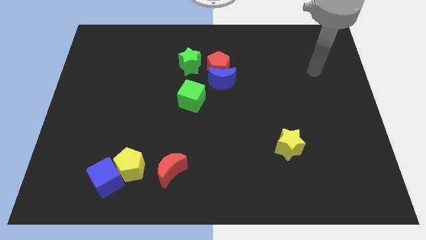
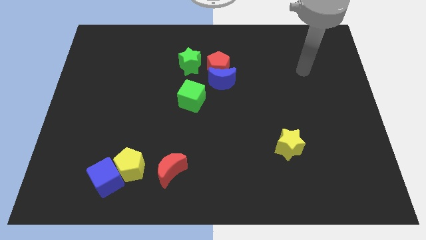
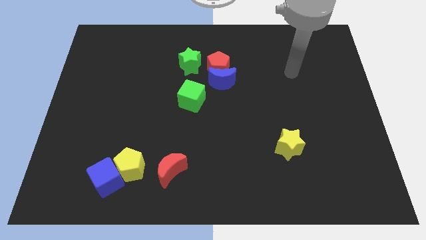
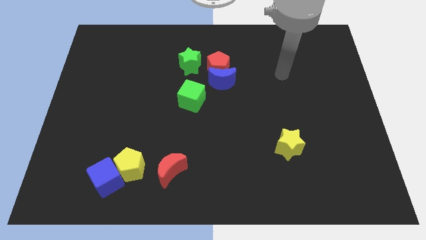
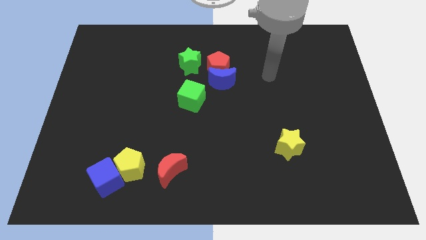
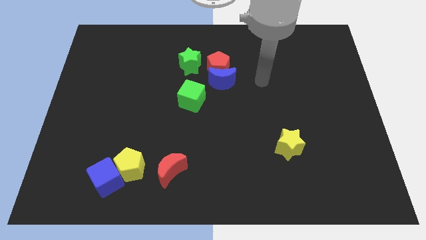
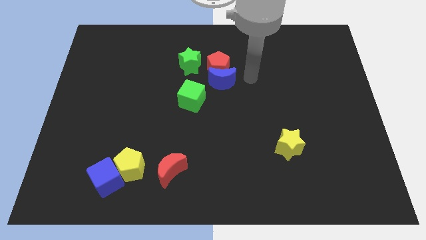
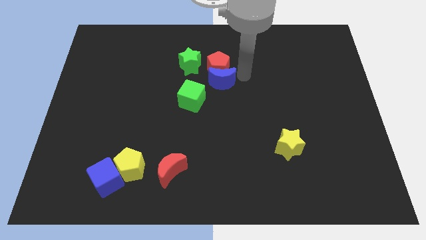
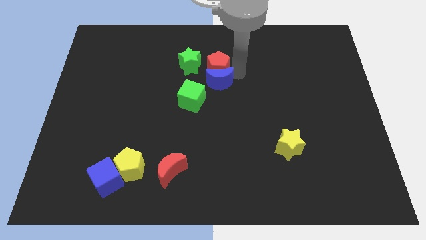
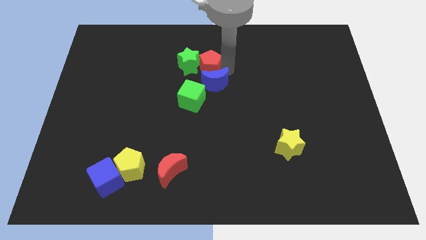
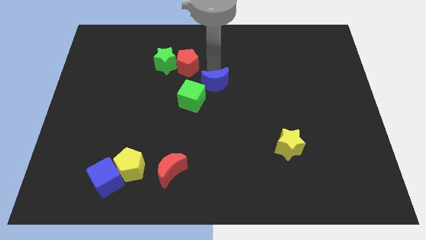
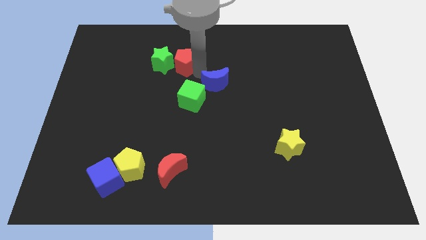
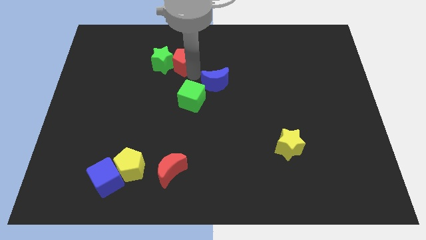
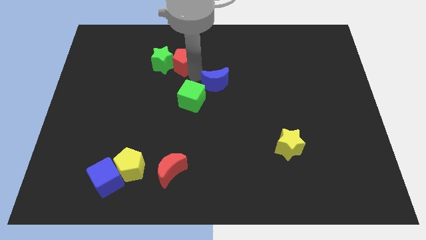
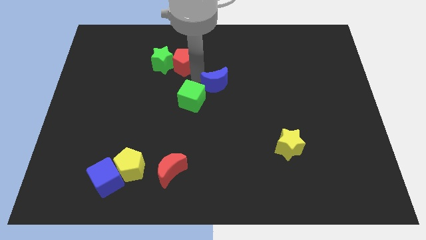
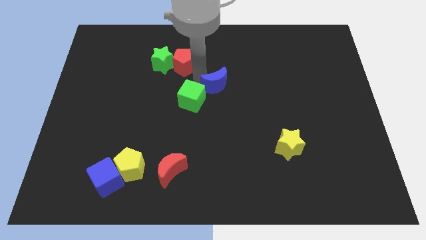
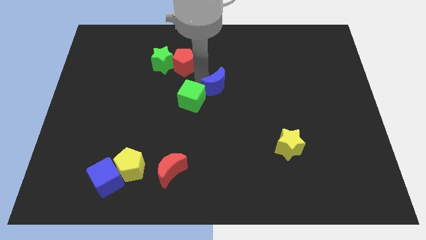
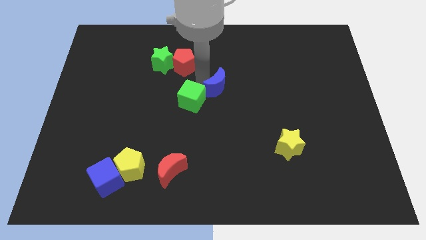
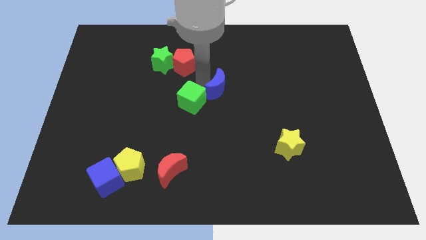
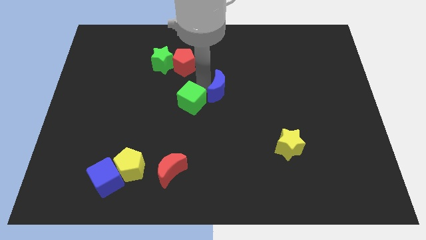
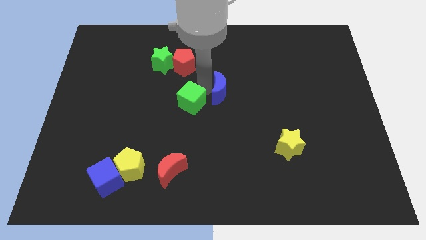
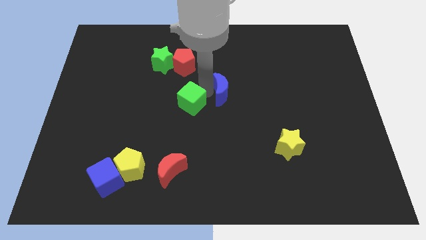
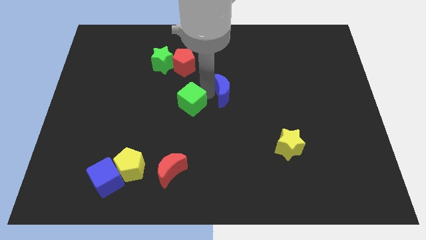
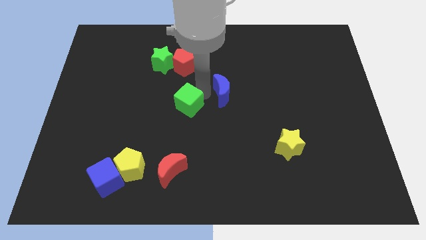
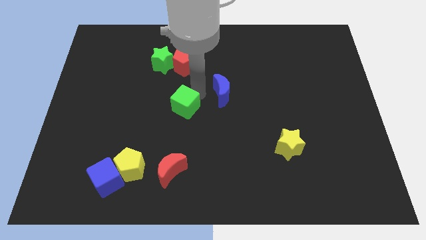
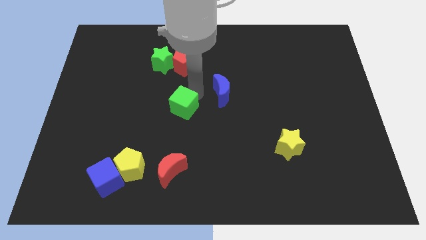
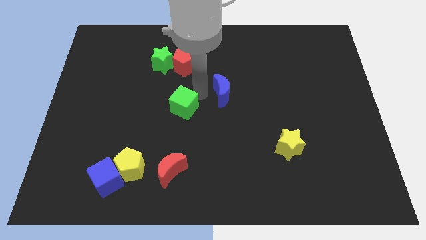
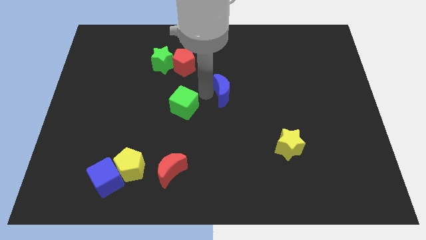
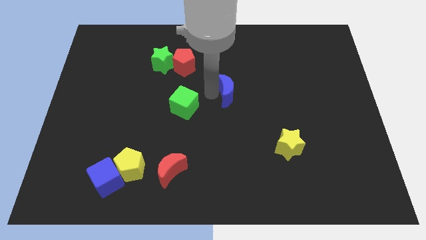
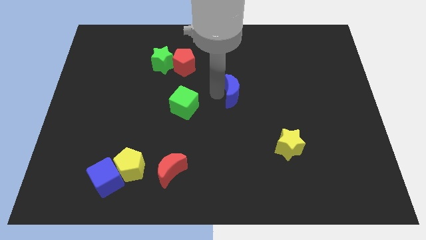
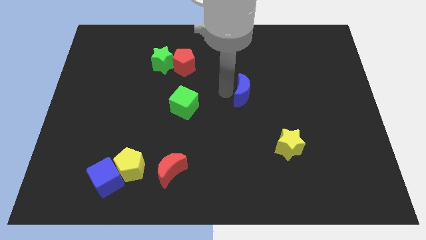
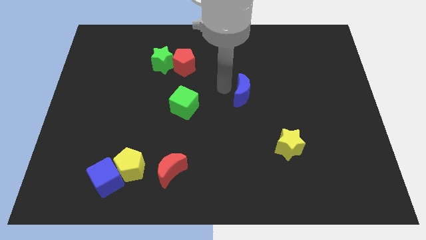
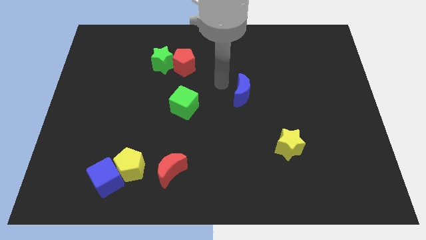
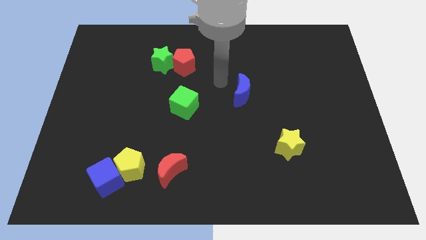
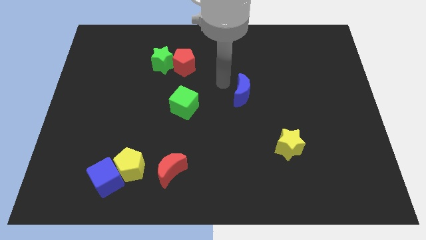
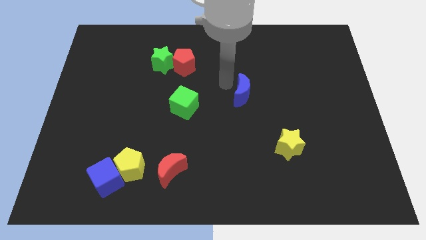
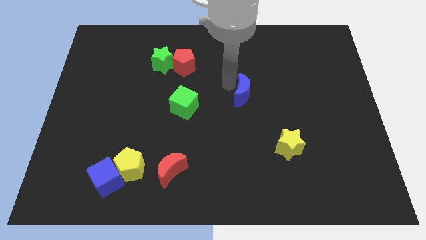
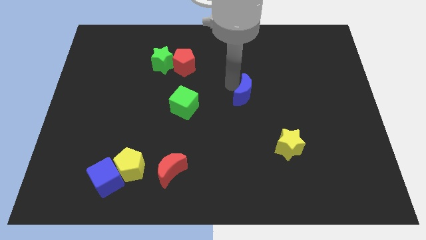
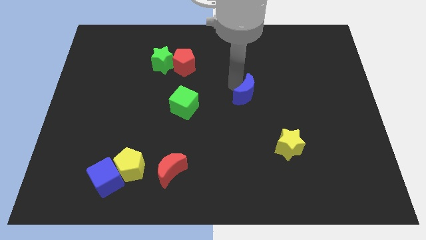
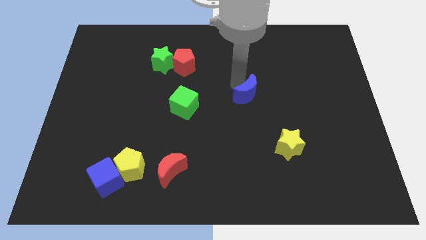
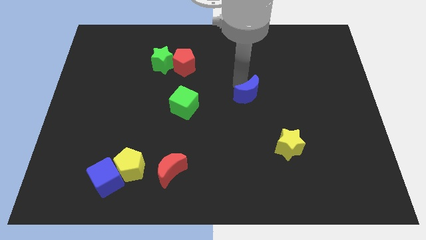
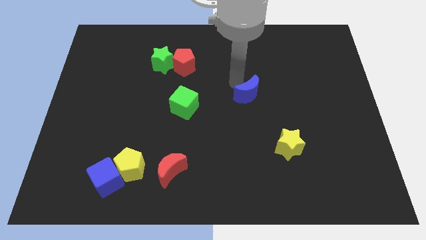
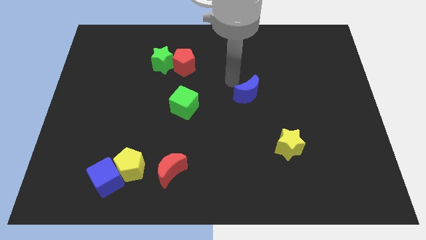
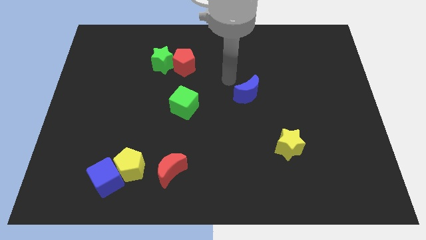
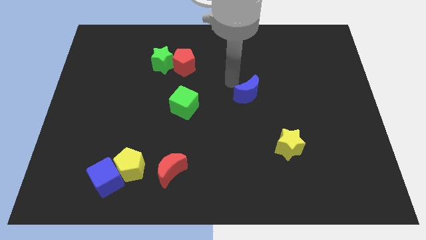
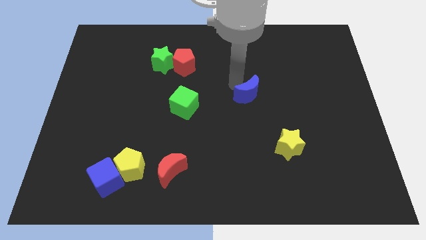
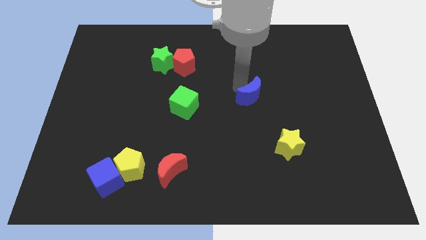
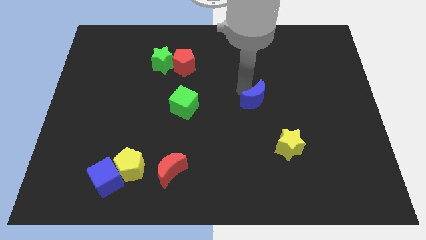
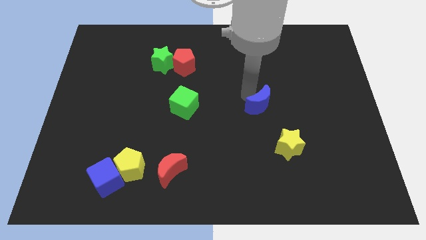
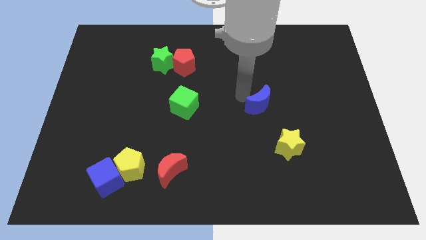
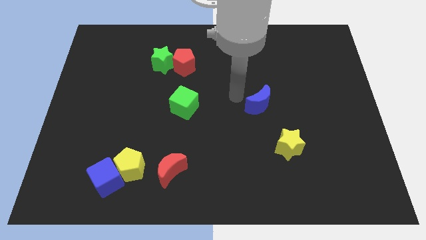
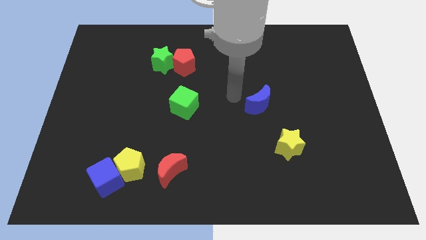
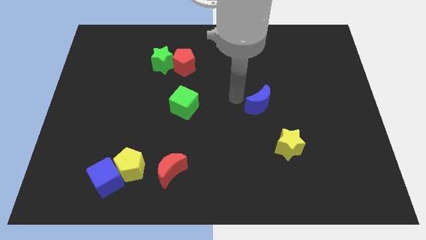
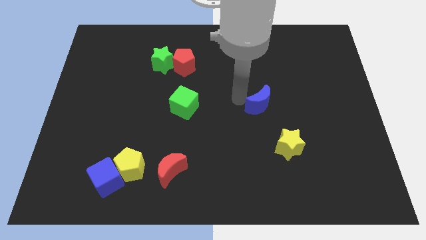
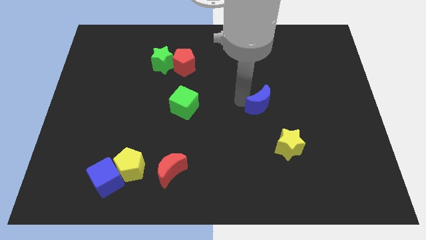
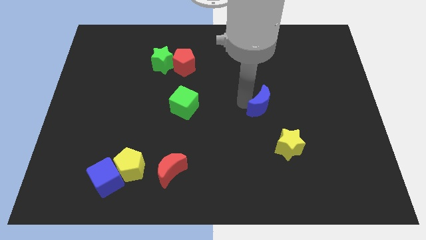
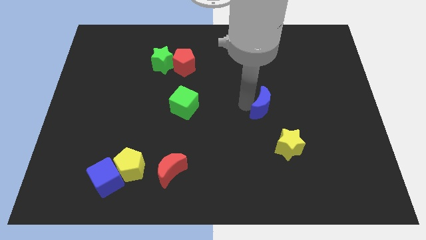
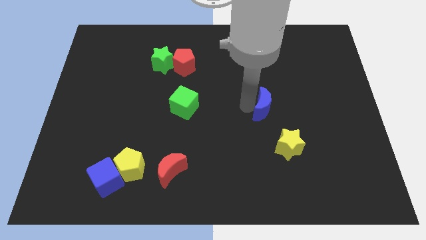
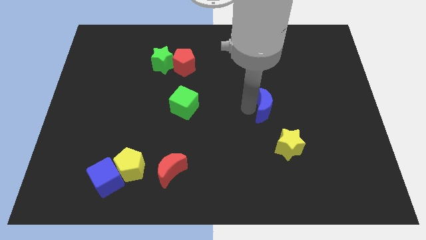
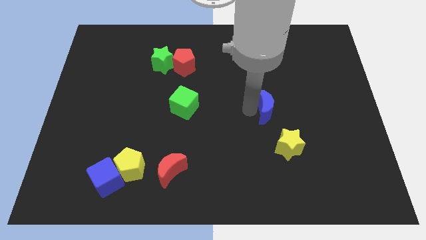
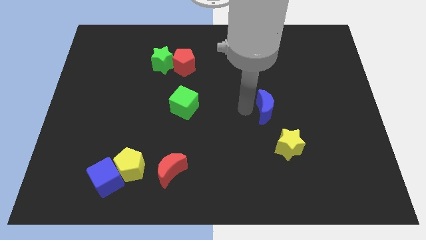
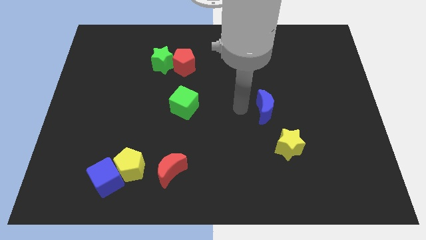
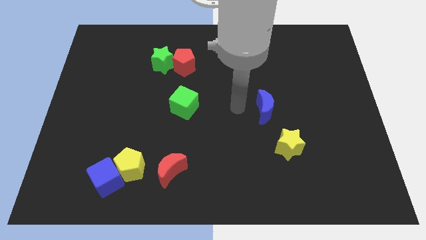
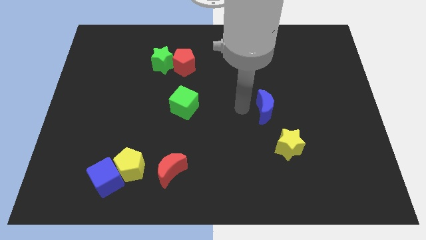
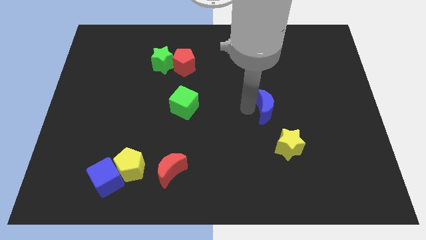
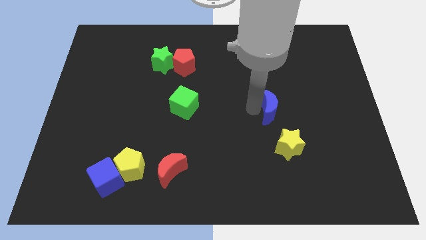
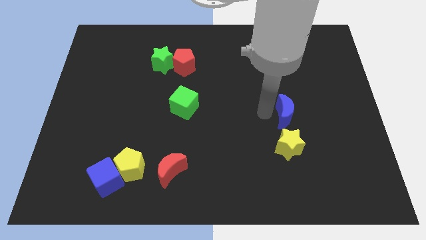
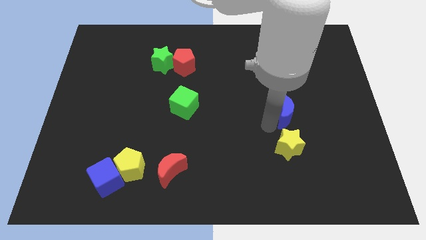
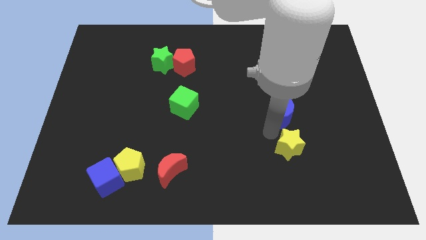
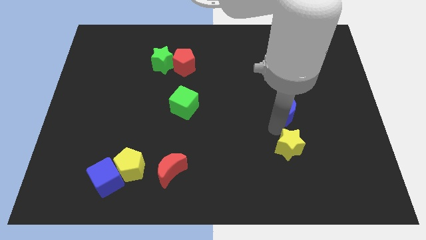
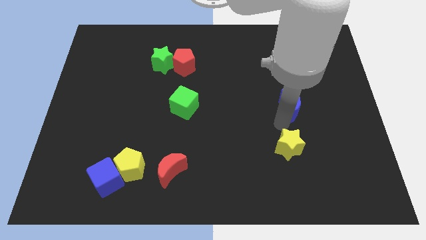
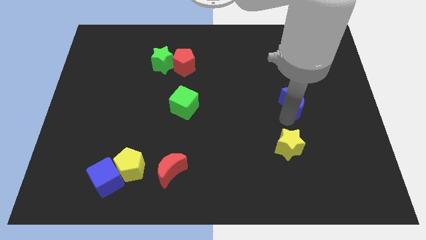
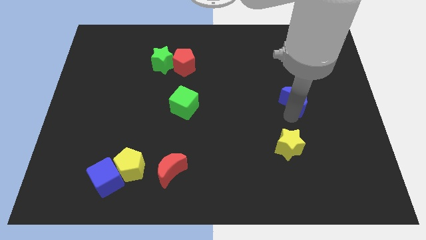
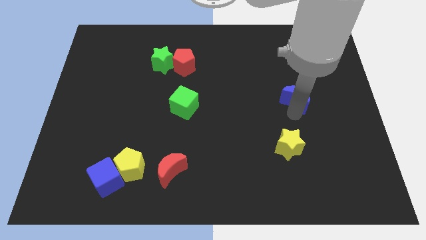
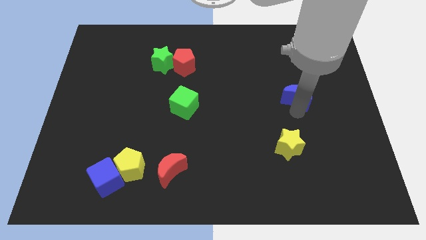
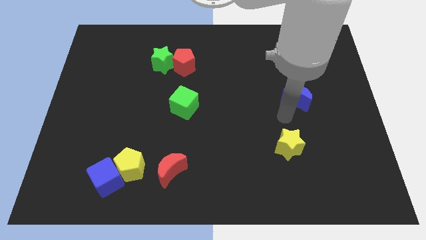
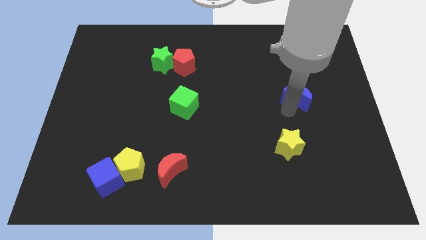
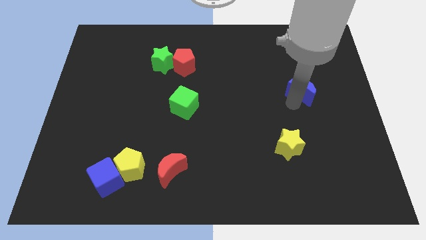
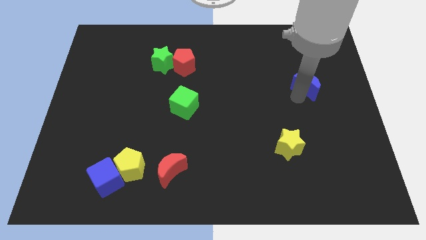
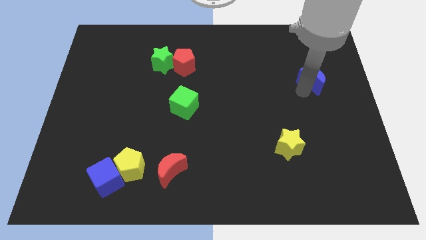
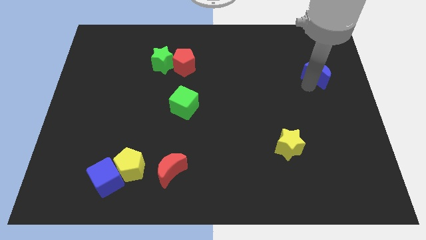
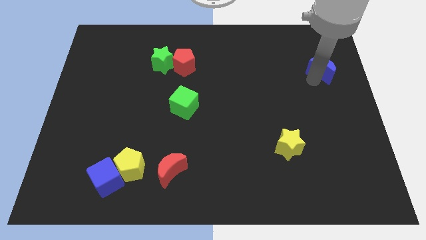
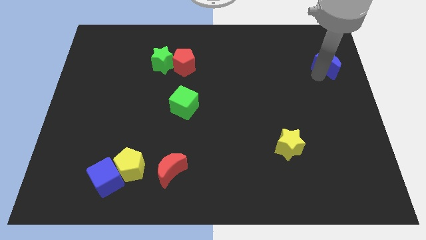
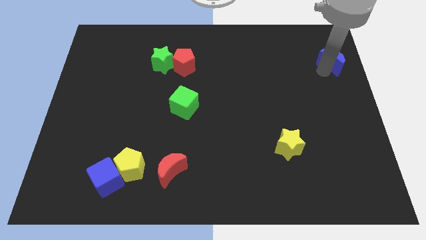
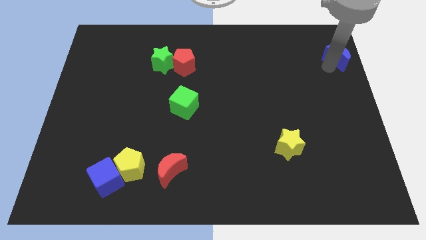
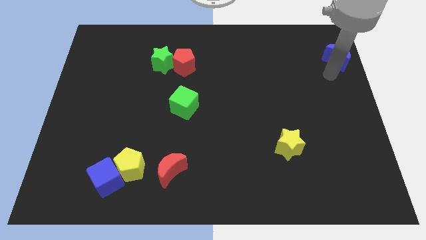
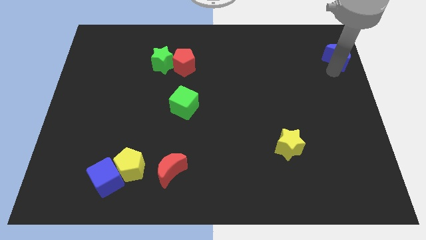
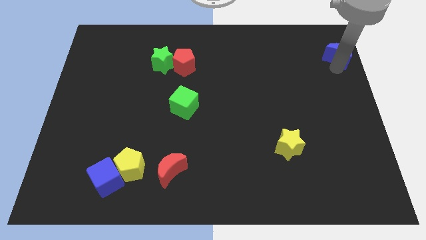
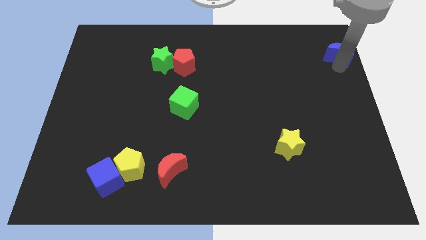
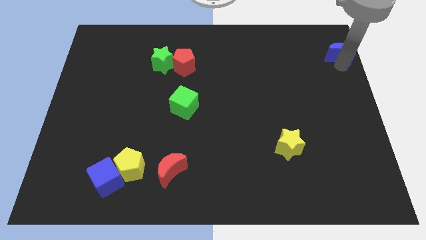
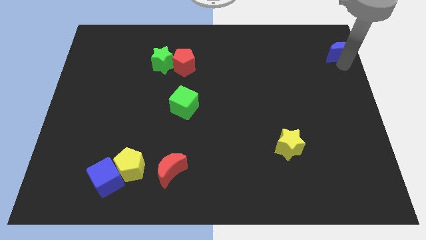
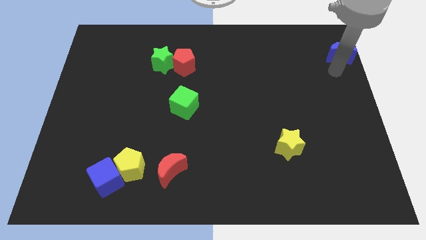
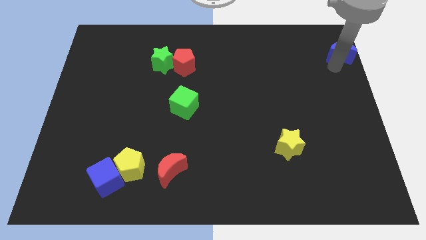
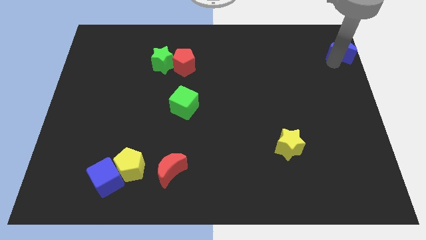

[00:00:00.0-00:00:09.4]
slide the blue moon to the top right corner
